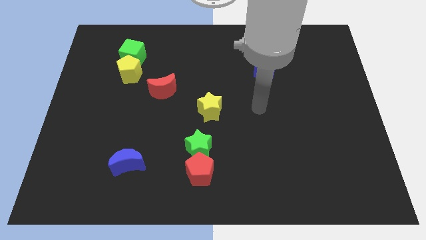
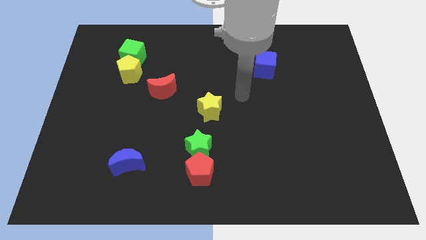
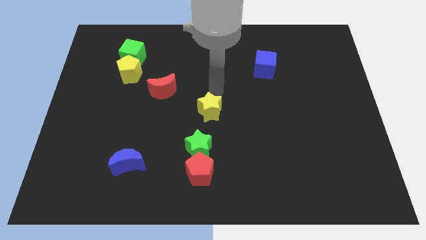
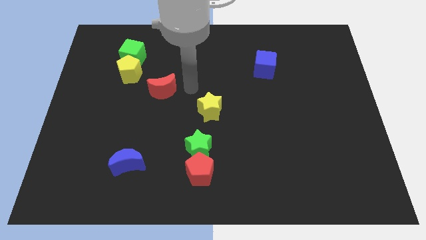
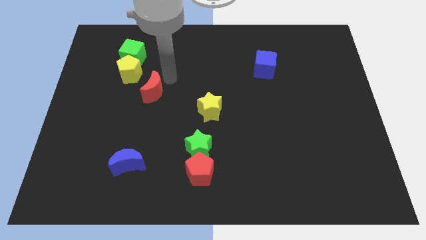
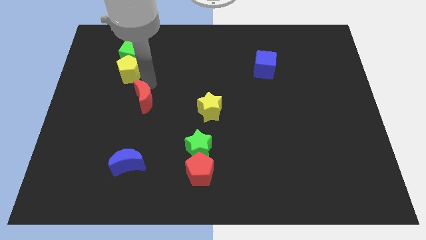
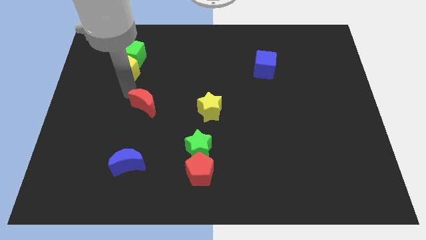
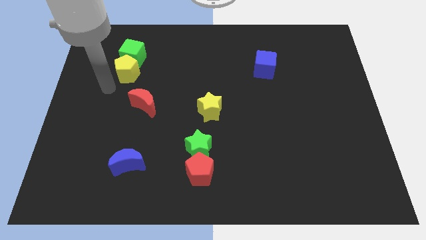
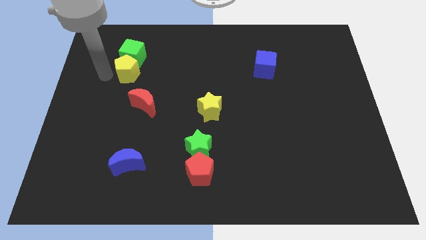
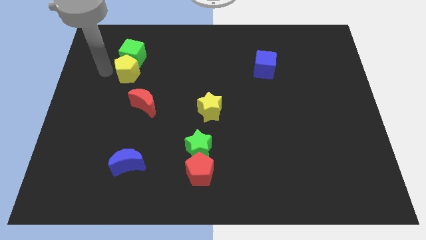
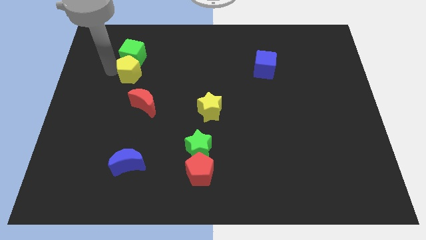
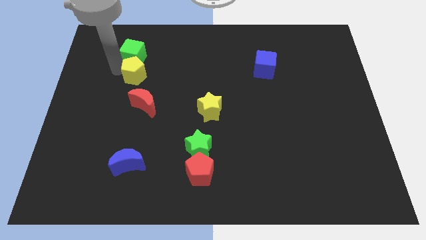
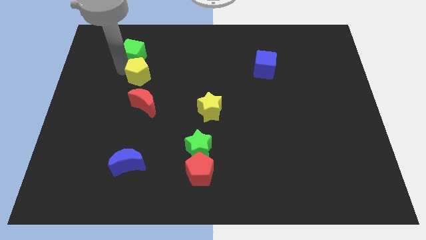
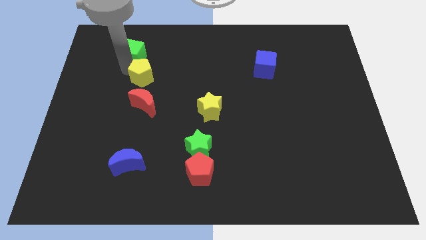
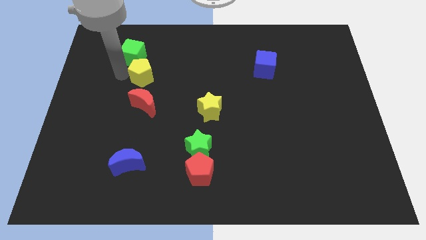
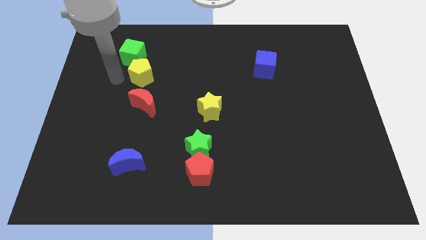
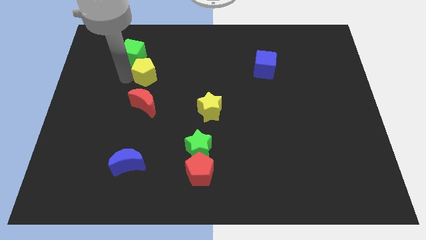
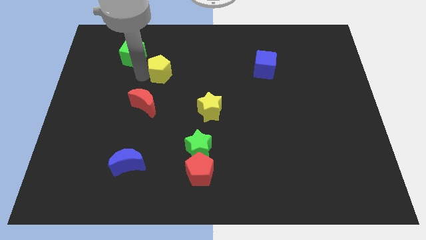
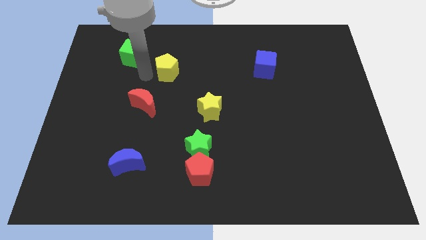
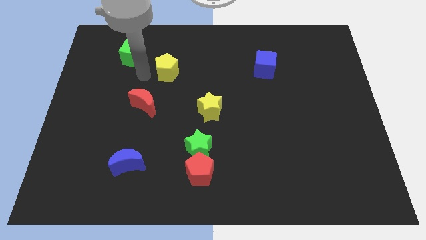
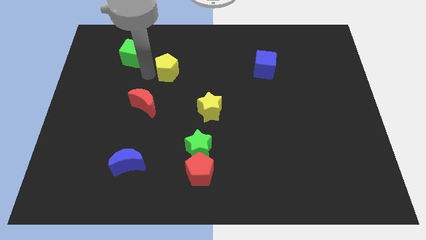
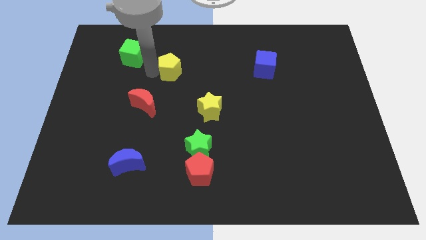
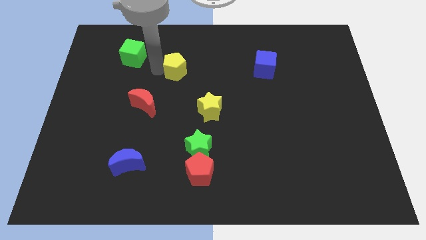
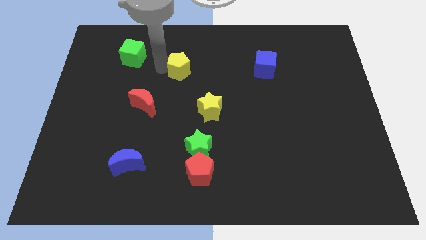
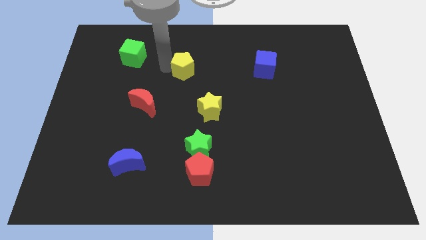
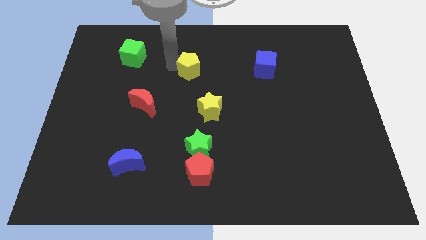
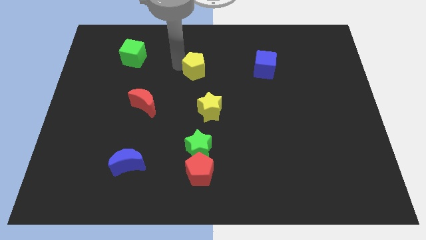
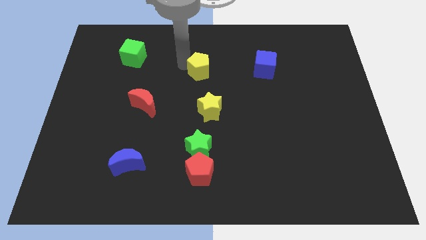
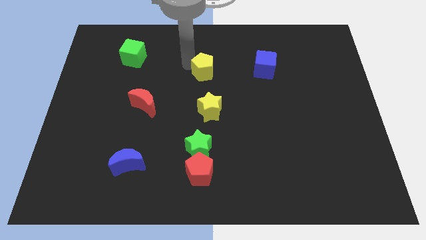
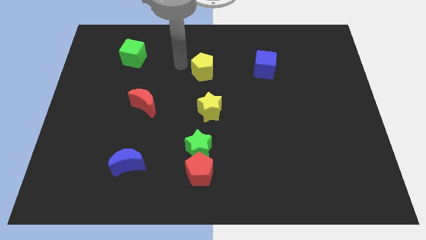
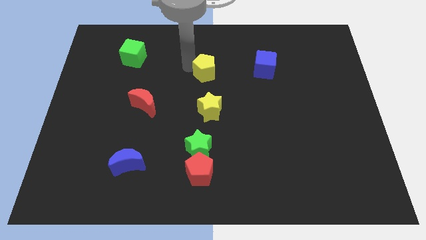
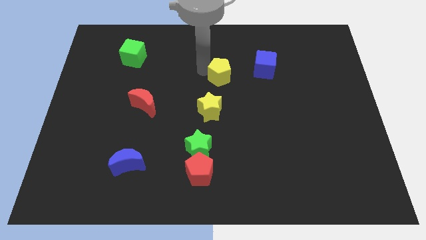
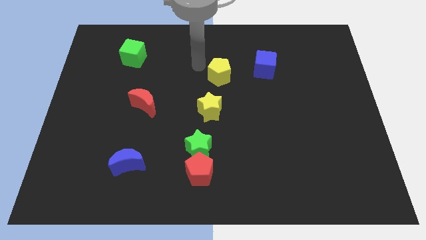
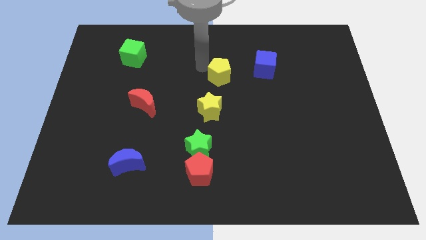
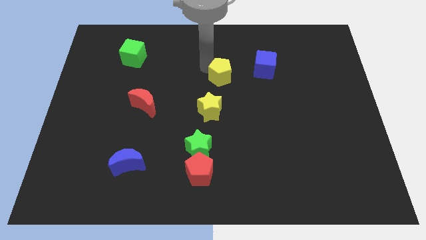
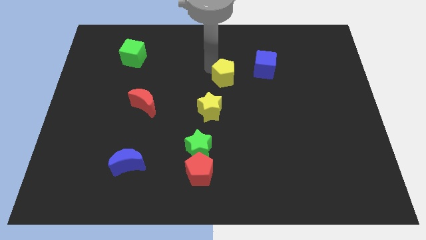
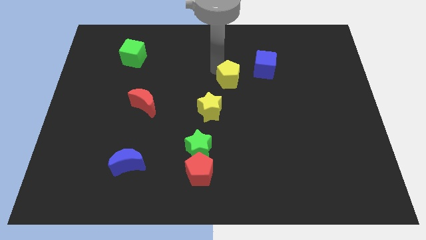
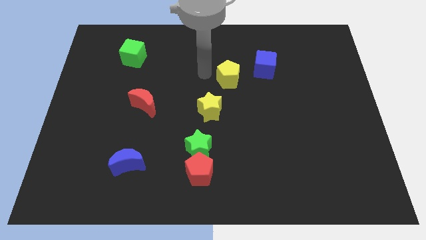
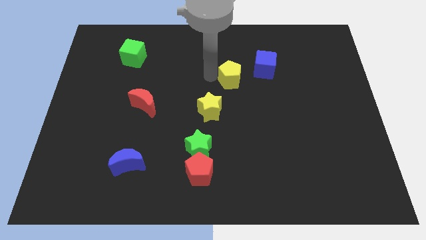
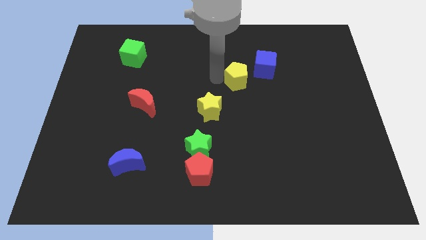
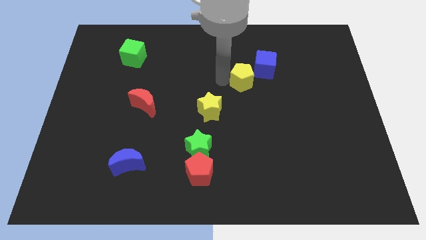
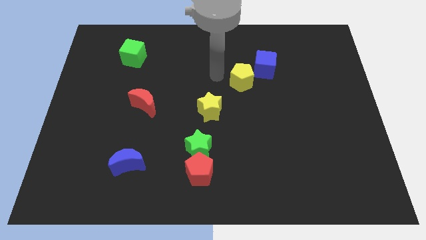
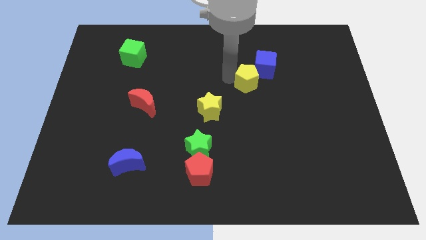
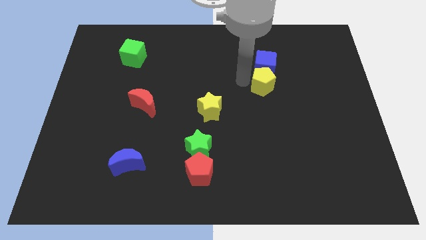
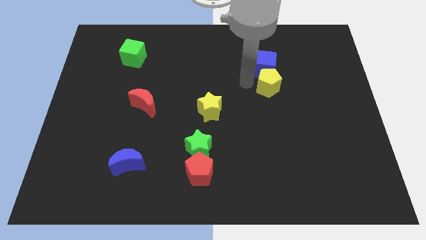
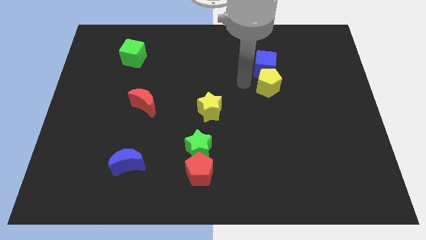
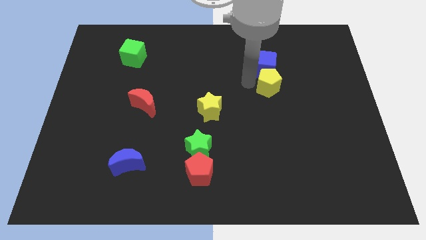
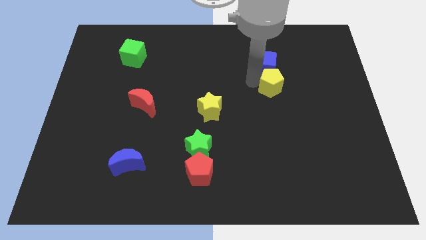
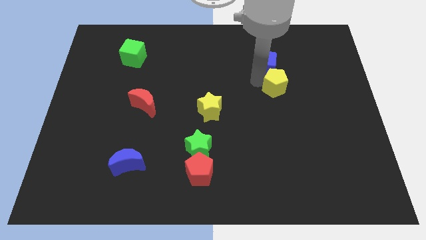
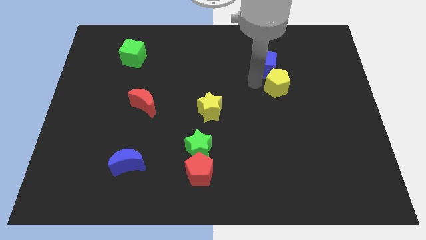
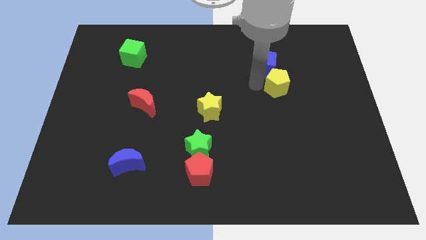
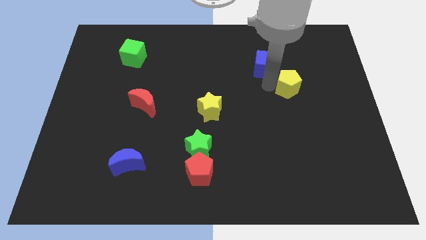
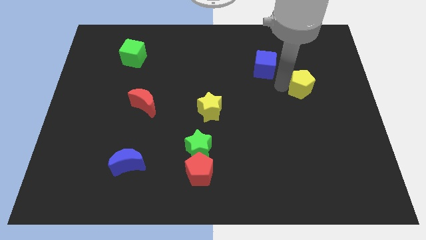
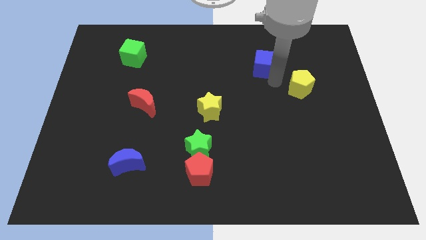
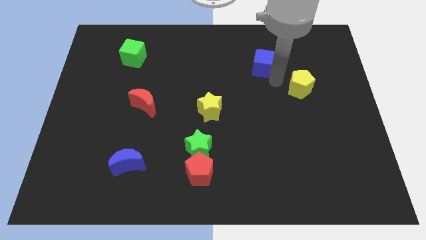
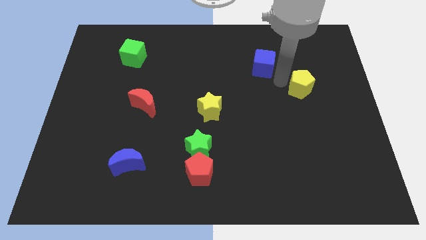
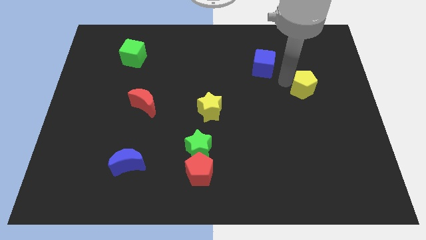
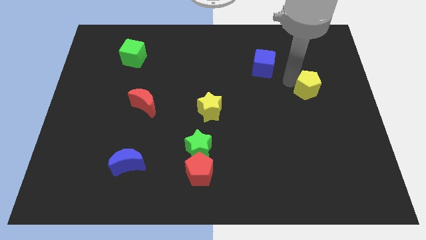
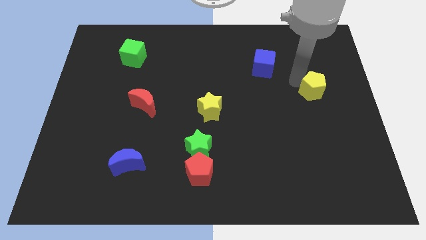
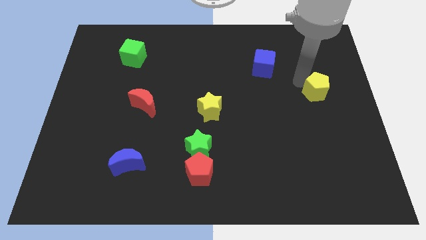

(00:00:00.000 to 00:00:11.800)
push the yellow pentagon to the right side
